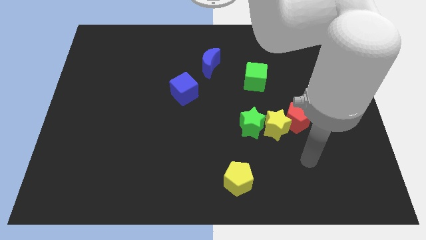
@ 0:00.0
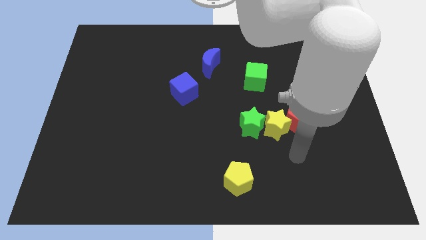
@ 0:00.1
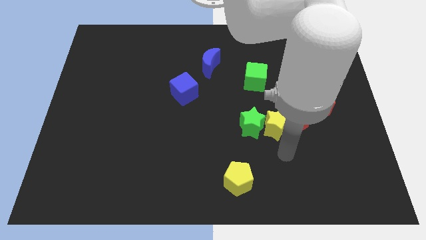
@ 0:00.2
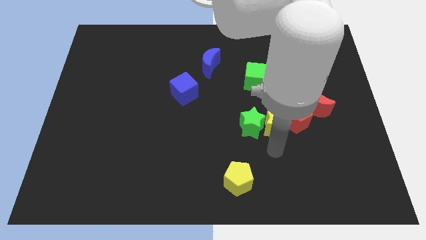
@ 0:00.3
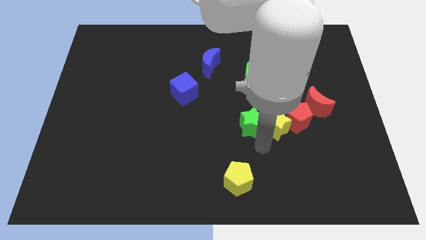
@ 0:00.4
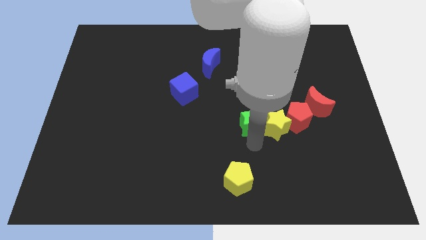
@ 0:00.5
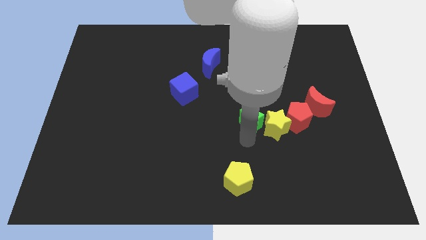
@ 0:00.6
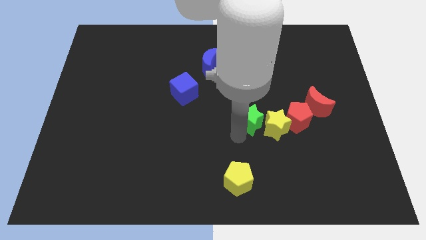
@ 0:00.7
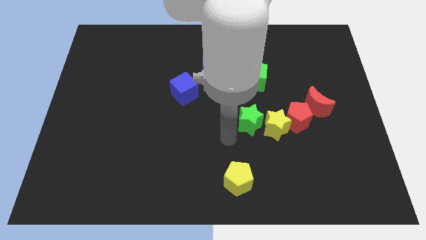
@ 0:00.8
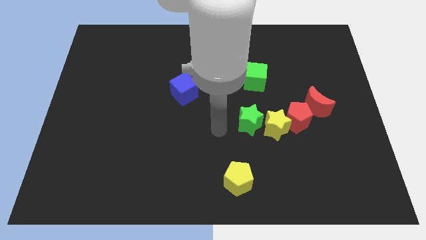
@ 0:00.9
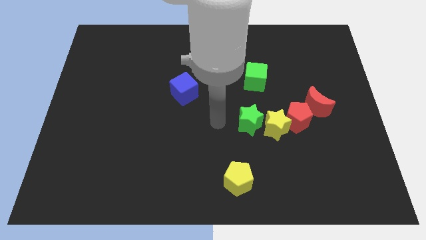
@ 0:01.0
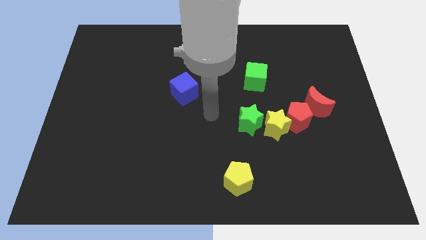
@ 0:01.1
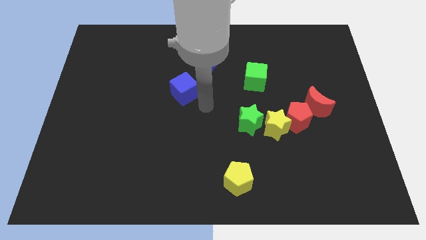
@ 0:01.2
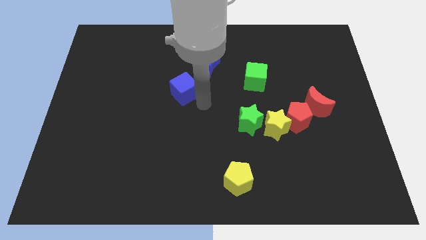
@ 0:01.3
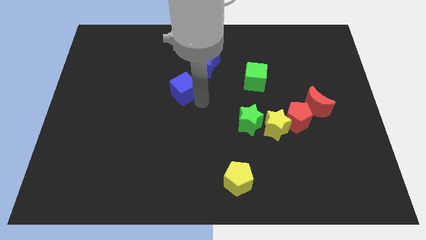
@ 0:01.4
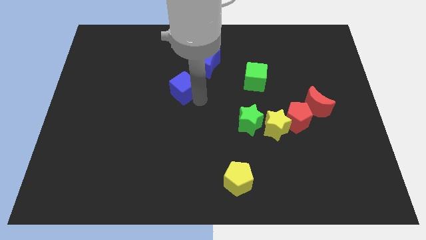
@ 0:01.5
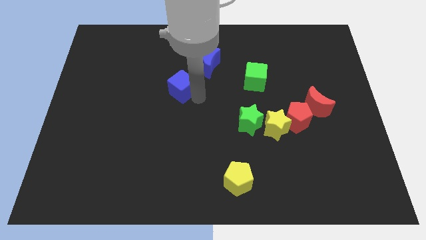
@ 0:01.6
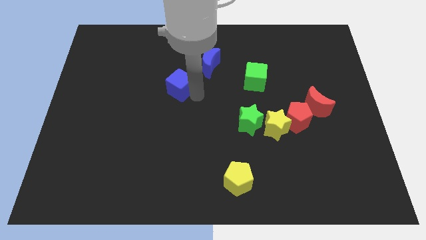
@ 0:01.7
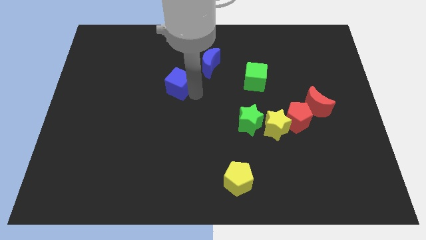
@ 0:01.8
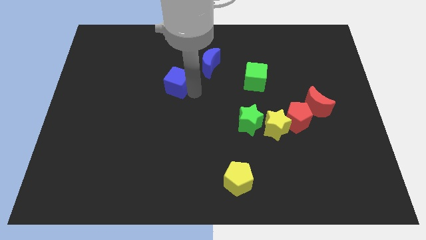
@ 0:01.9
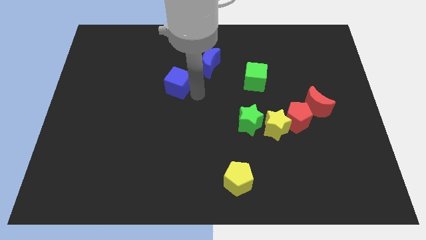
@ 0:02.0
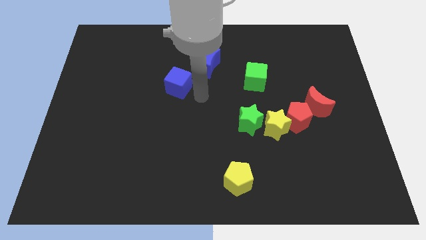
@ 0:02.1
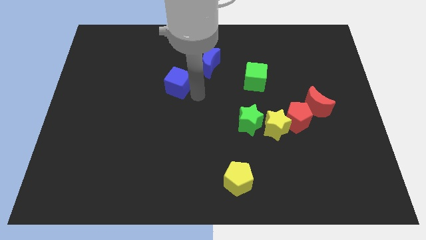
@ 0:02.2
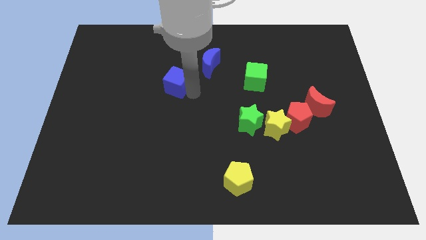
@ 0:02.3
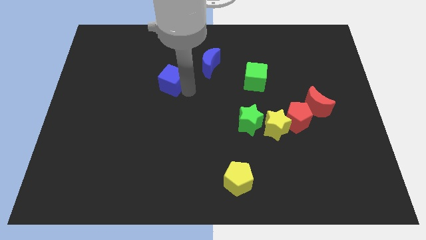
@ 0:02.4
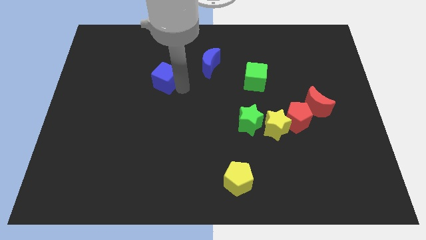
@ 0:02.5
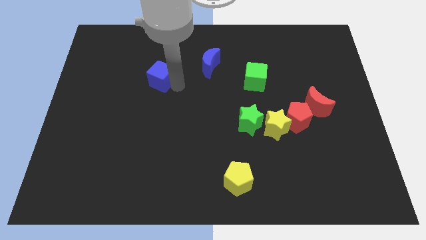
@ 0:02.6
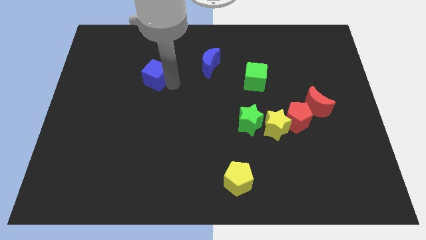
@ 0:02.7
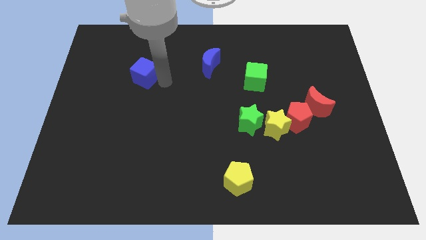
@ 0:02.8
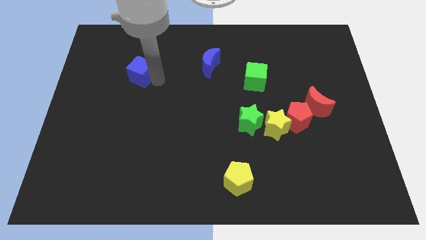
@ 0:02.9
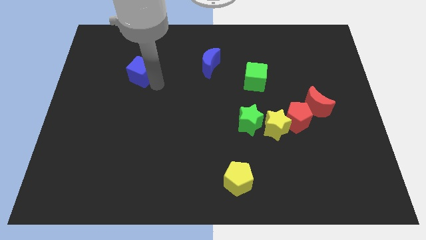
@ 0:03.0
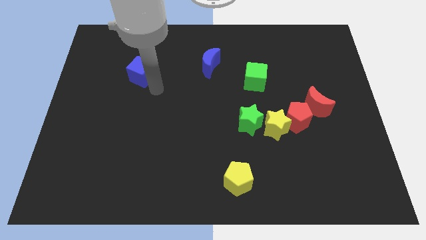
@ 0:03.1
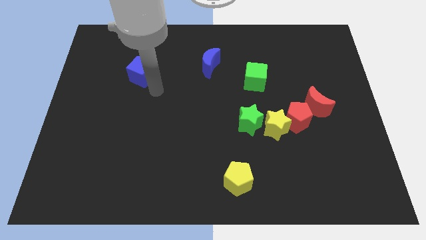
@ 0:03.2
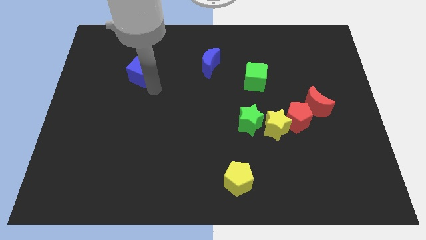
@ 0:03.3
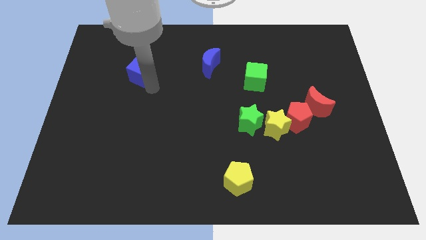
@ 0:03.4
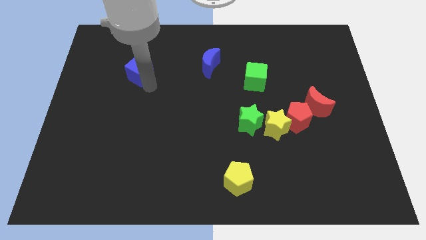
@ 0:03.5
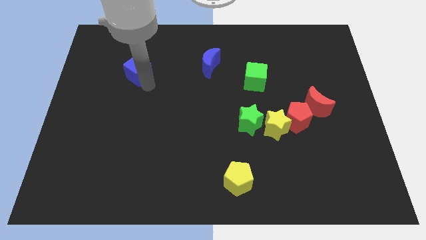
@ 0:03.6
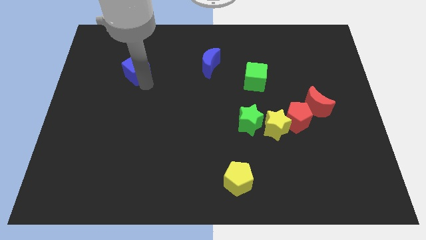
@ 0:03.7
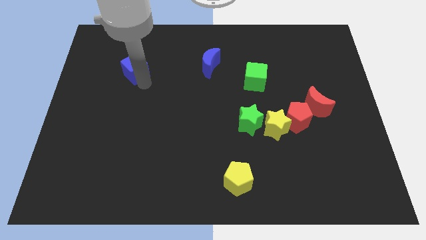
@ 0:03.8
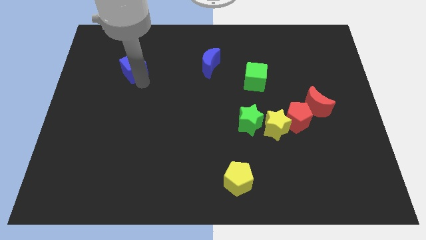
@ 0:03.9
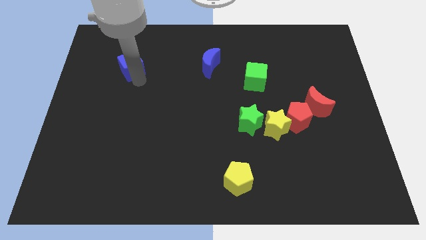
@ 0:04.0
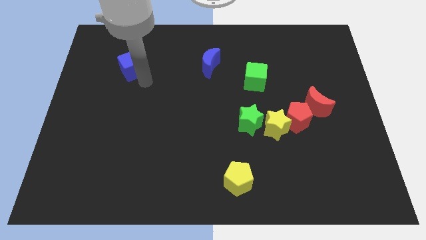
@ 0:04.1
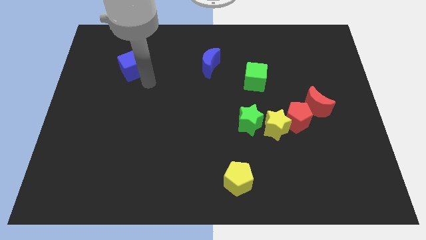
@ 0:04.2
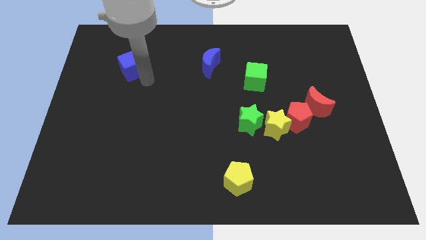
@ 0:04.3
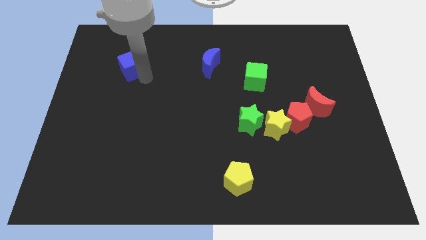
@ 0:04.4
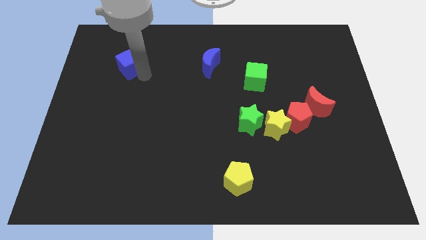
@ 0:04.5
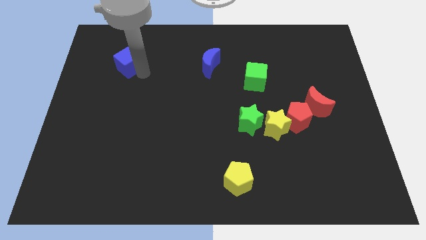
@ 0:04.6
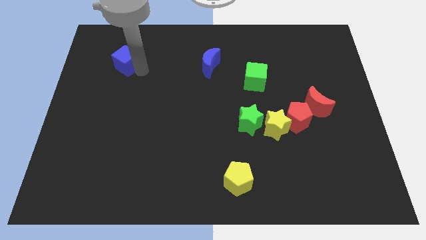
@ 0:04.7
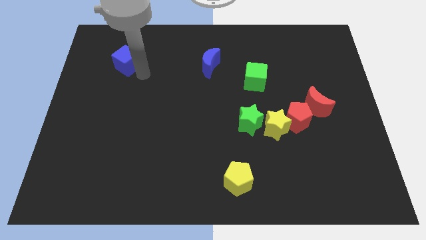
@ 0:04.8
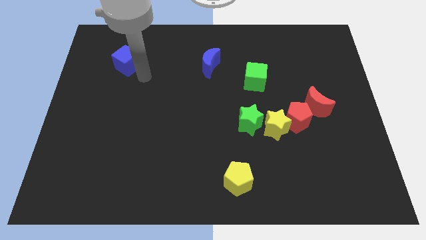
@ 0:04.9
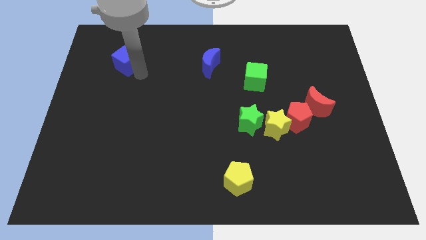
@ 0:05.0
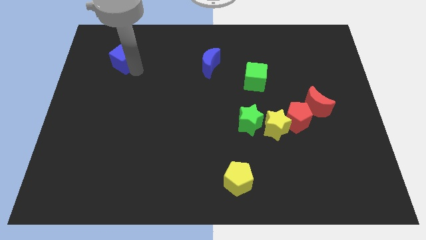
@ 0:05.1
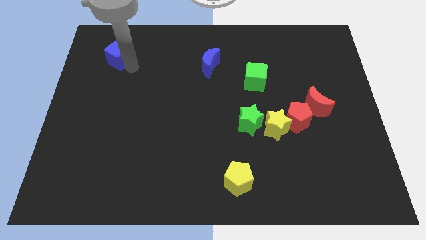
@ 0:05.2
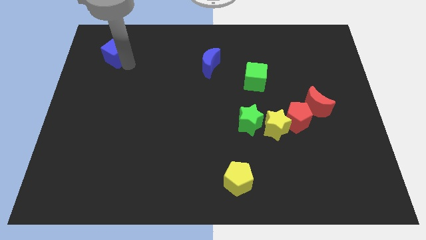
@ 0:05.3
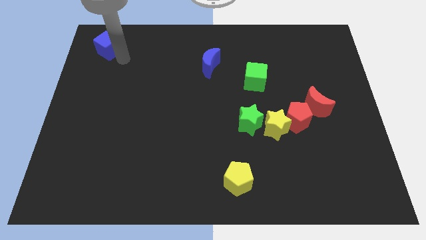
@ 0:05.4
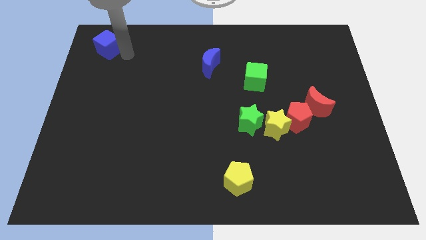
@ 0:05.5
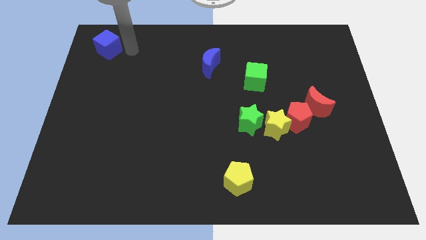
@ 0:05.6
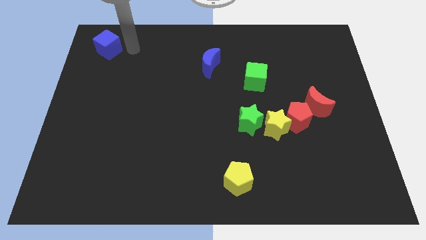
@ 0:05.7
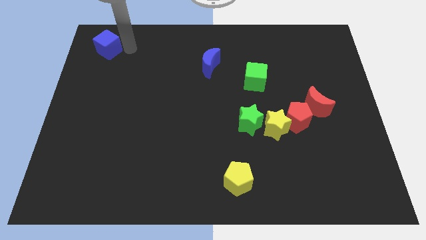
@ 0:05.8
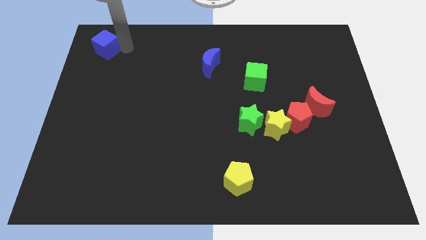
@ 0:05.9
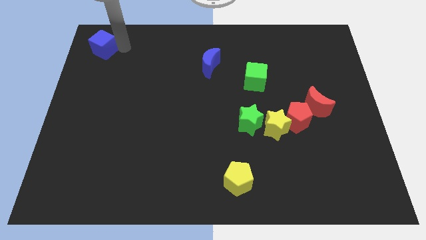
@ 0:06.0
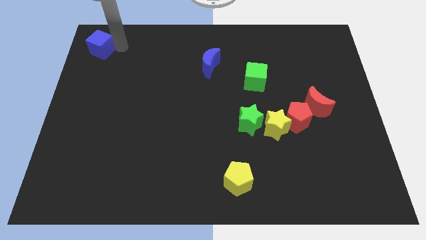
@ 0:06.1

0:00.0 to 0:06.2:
slide the blue cube to the upper left corner
